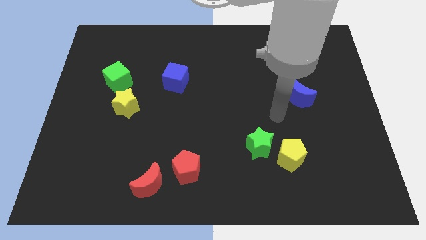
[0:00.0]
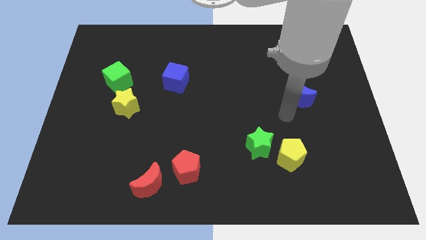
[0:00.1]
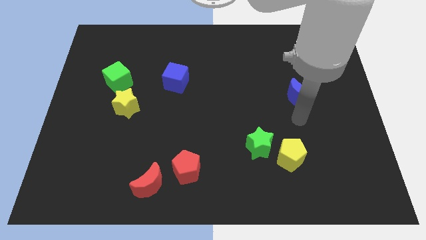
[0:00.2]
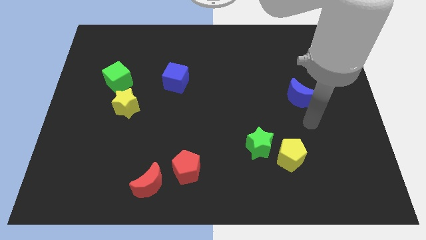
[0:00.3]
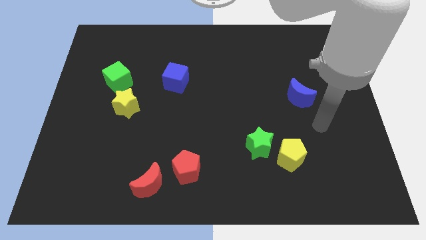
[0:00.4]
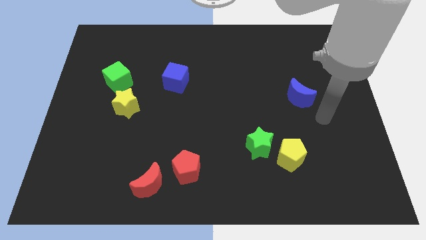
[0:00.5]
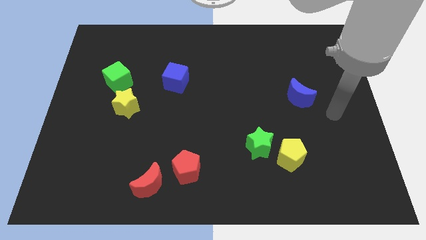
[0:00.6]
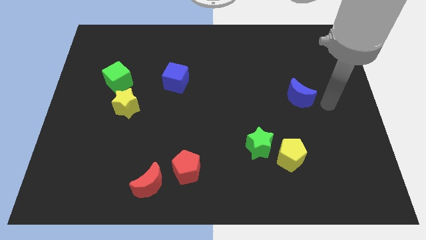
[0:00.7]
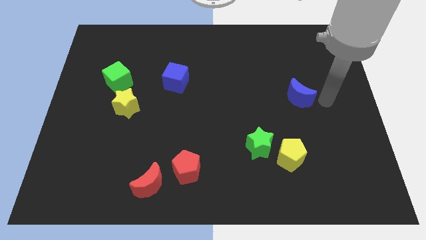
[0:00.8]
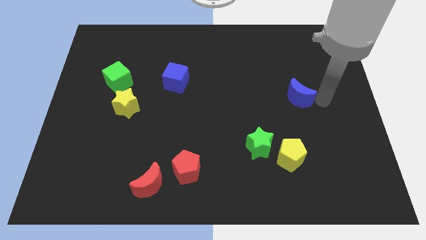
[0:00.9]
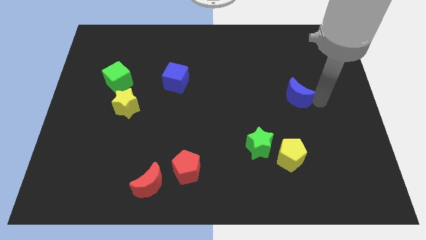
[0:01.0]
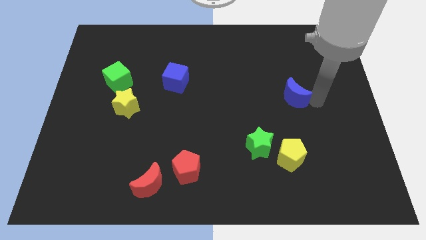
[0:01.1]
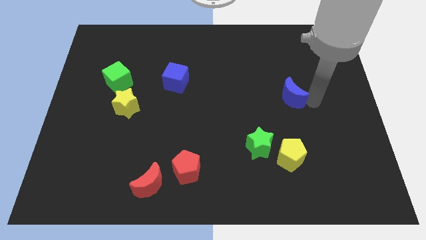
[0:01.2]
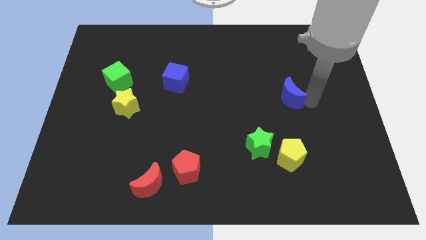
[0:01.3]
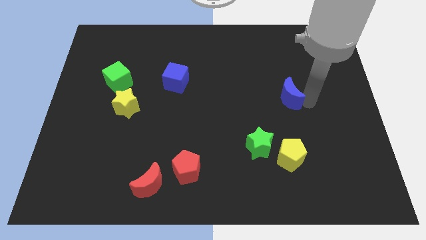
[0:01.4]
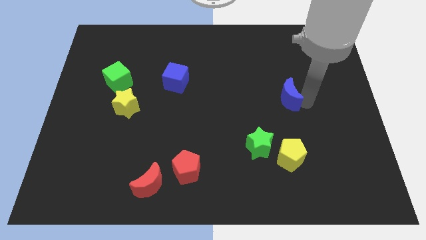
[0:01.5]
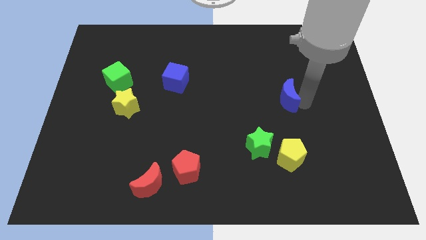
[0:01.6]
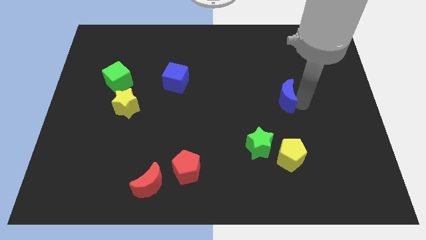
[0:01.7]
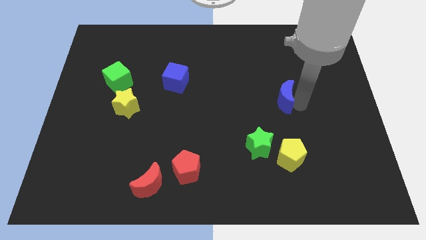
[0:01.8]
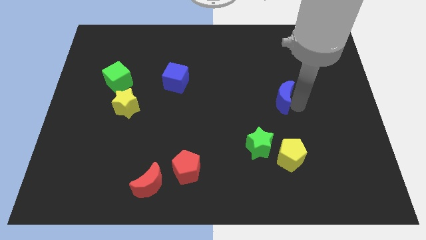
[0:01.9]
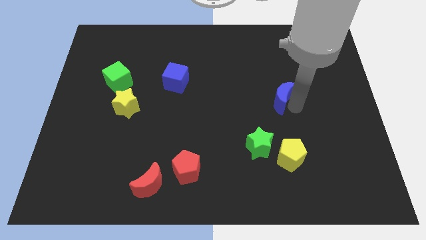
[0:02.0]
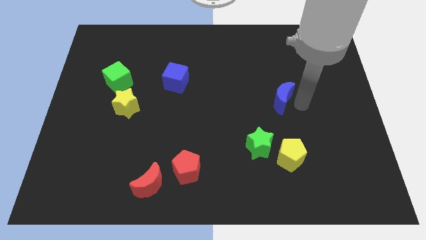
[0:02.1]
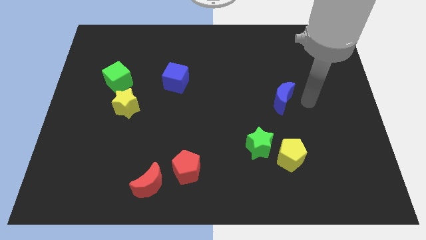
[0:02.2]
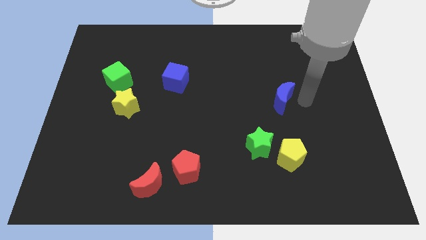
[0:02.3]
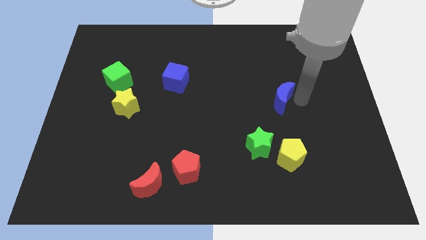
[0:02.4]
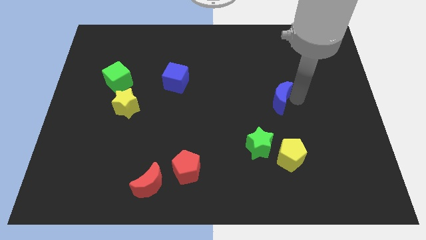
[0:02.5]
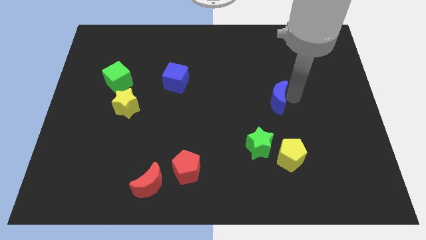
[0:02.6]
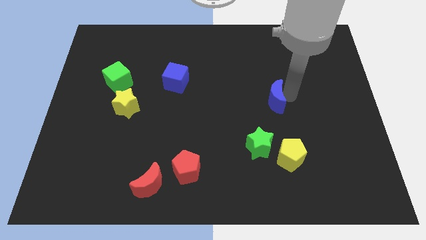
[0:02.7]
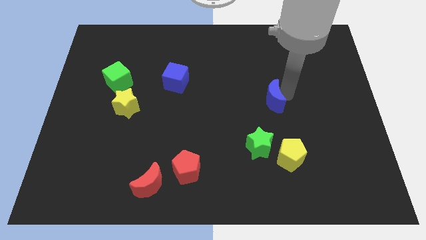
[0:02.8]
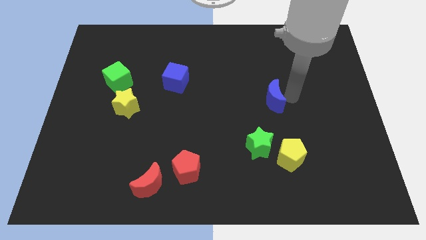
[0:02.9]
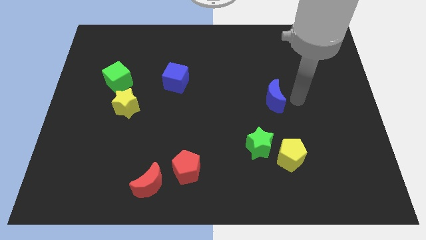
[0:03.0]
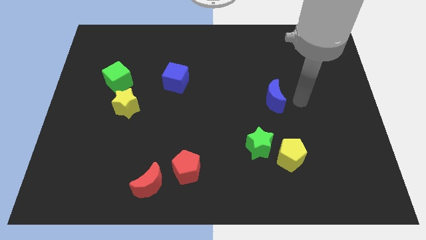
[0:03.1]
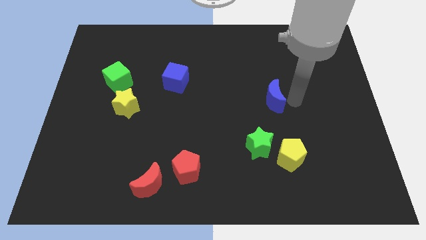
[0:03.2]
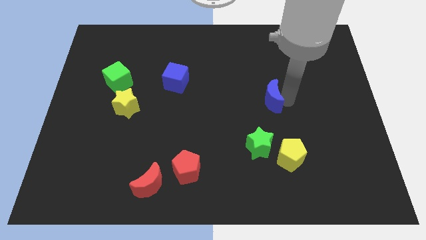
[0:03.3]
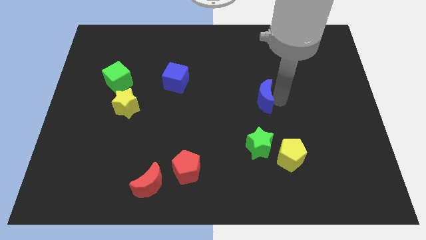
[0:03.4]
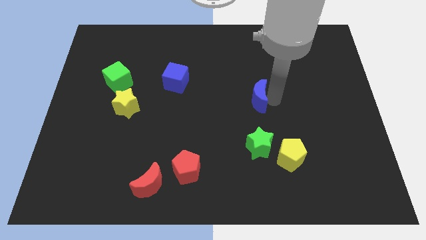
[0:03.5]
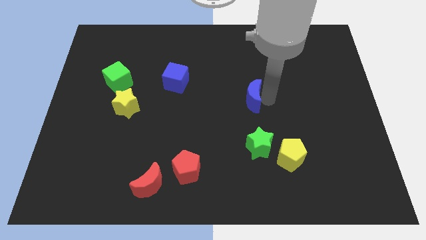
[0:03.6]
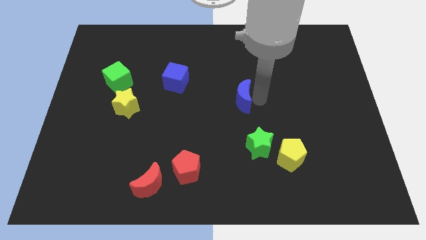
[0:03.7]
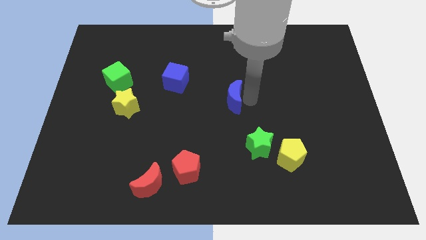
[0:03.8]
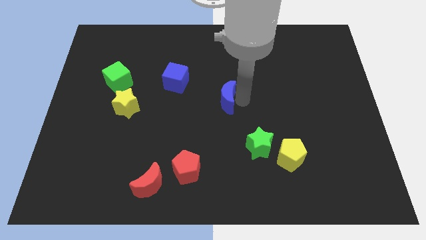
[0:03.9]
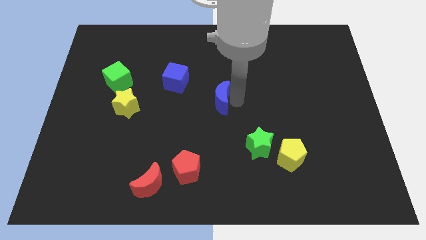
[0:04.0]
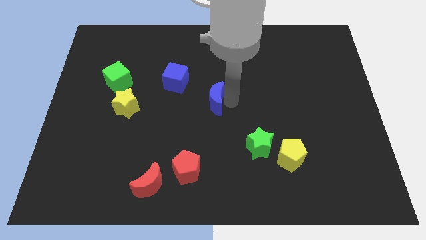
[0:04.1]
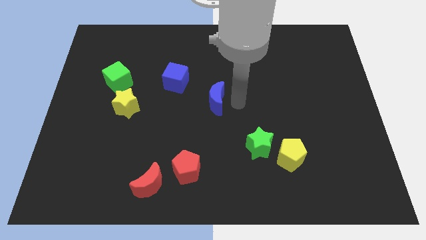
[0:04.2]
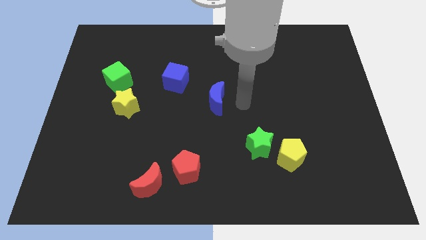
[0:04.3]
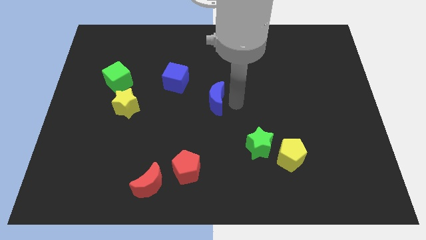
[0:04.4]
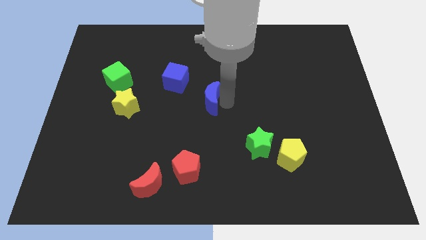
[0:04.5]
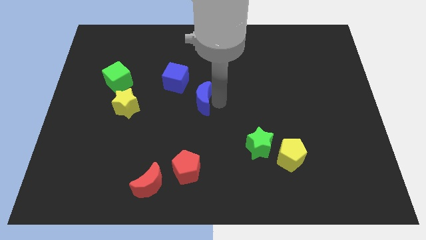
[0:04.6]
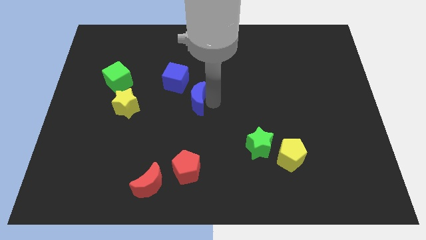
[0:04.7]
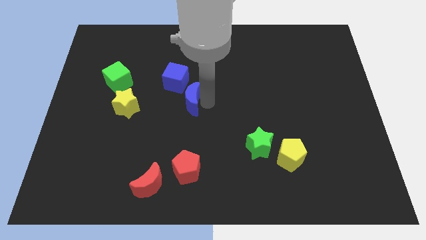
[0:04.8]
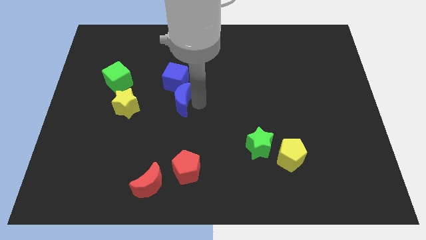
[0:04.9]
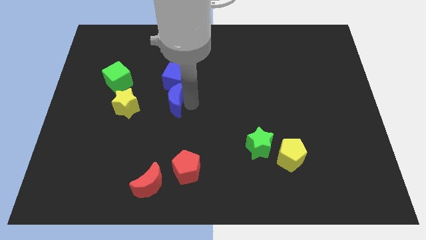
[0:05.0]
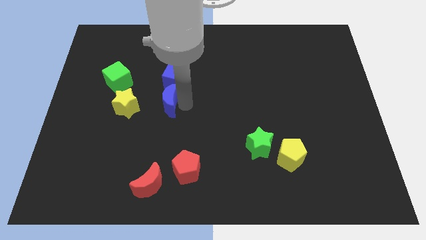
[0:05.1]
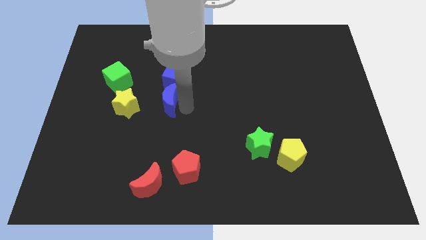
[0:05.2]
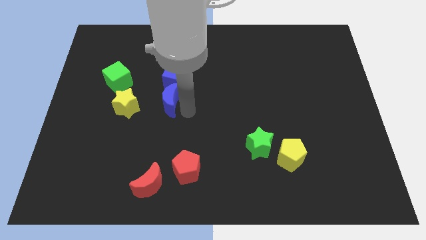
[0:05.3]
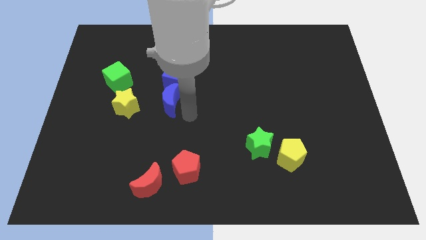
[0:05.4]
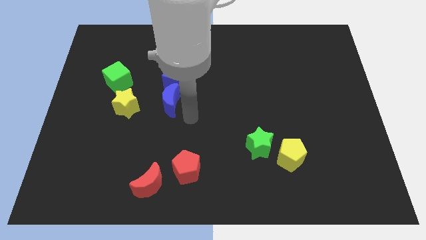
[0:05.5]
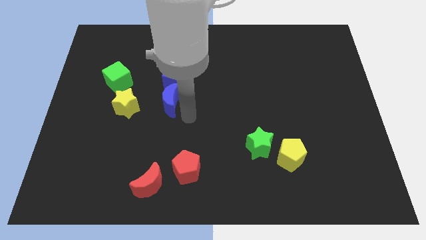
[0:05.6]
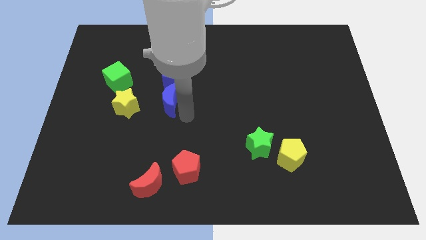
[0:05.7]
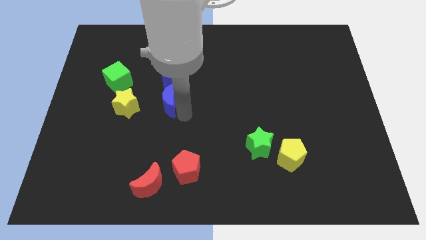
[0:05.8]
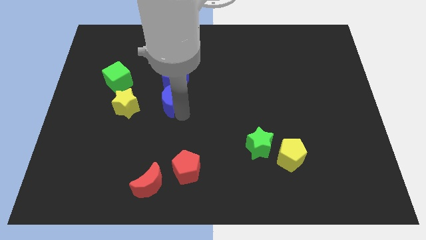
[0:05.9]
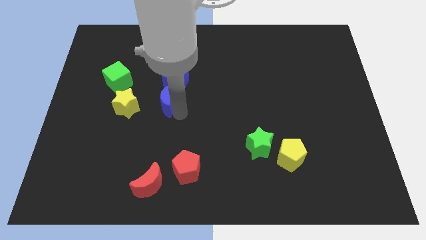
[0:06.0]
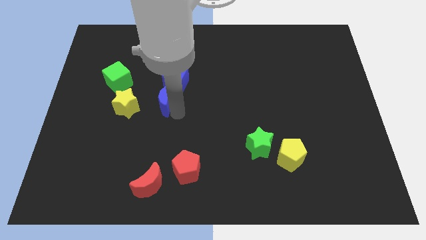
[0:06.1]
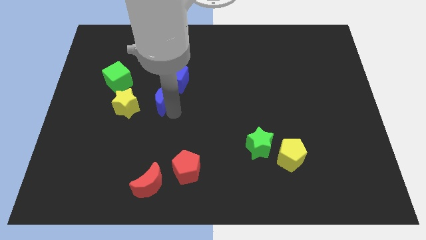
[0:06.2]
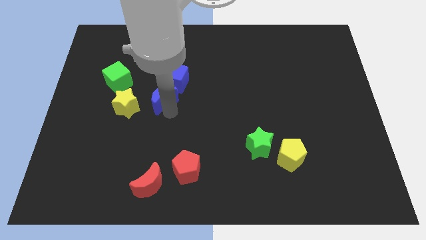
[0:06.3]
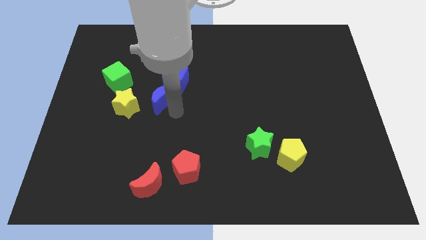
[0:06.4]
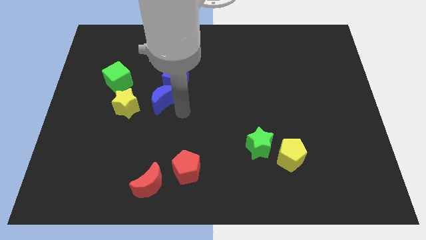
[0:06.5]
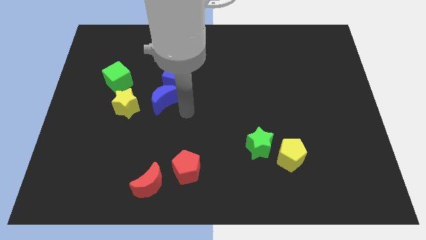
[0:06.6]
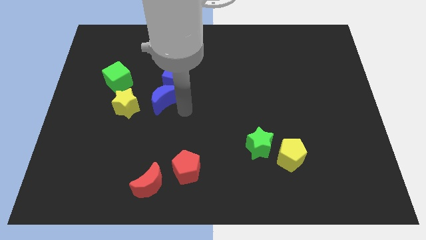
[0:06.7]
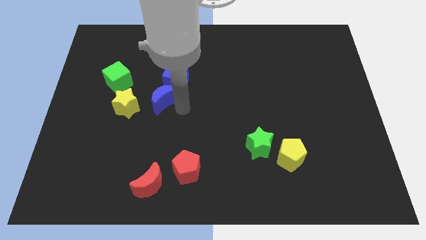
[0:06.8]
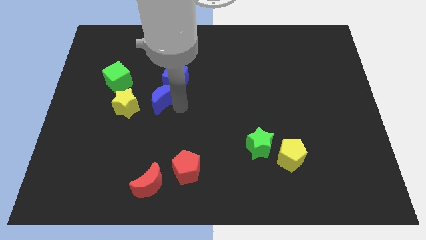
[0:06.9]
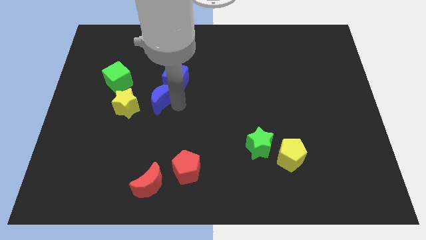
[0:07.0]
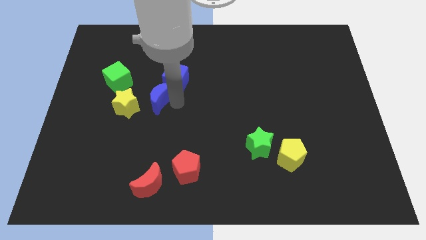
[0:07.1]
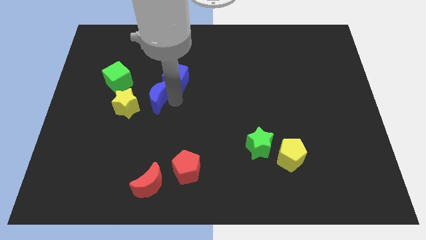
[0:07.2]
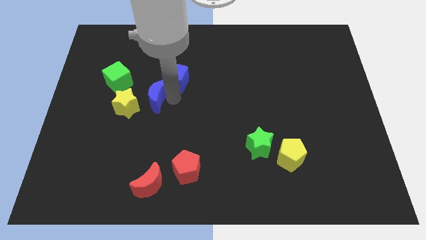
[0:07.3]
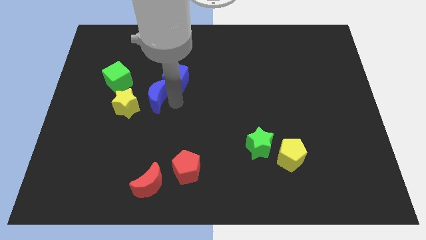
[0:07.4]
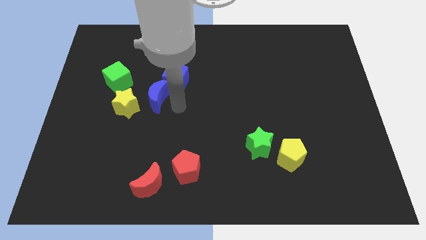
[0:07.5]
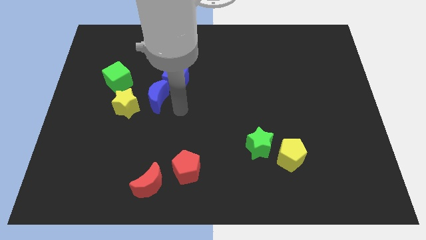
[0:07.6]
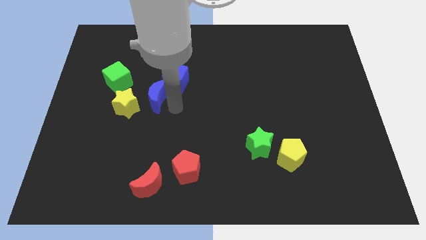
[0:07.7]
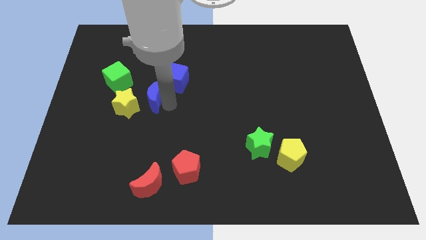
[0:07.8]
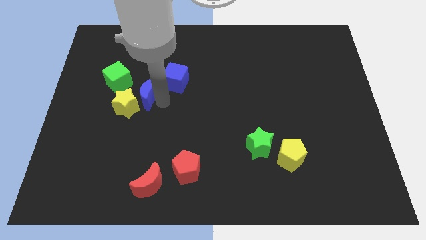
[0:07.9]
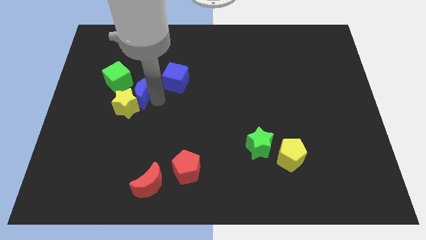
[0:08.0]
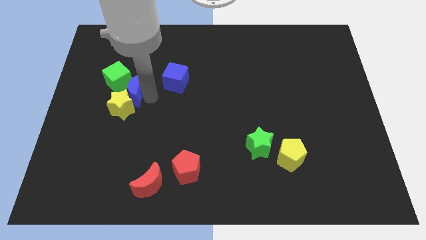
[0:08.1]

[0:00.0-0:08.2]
move the blue moon close to the green cube
